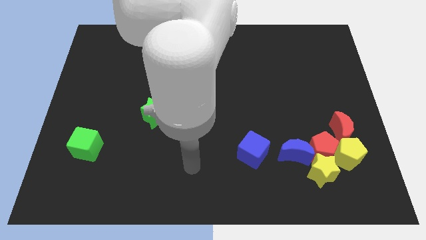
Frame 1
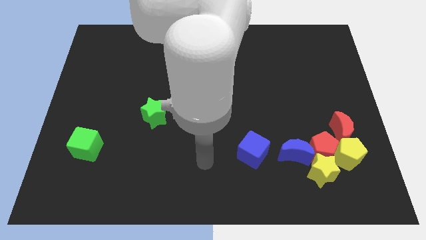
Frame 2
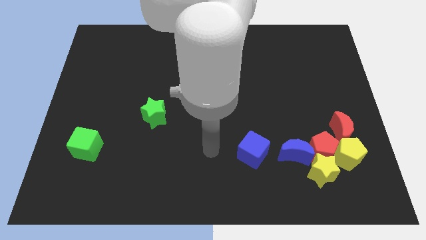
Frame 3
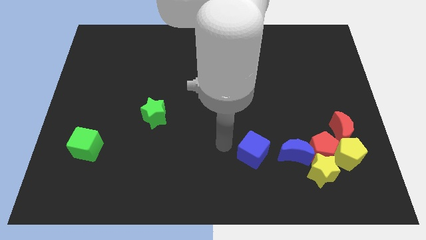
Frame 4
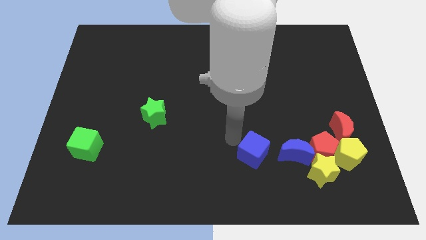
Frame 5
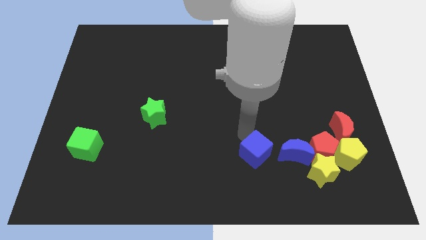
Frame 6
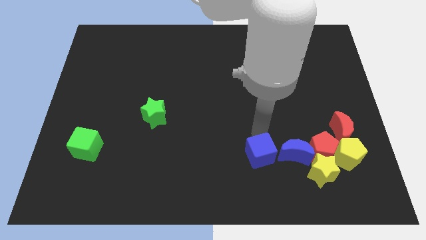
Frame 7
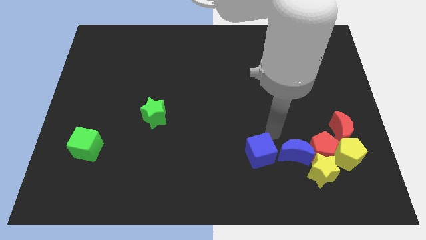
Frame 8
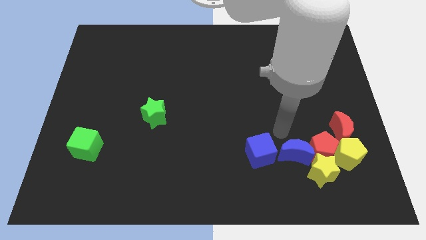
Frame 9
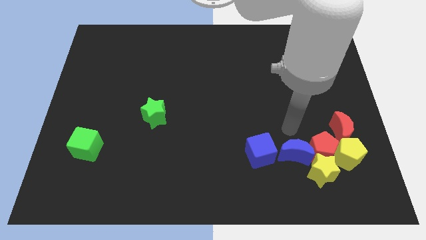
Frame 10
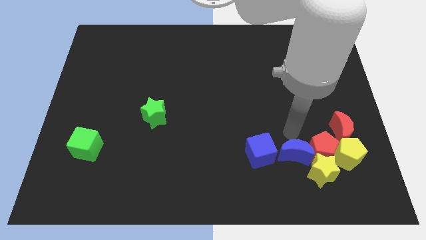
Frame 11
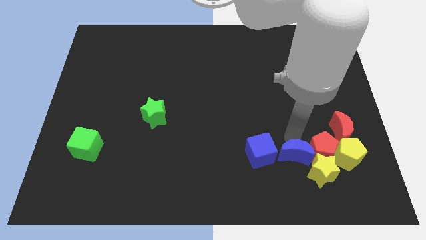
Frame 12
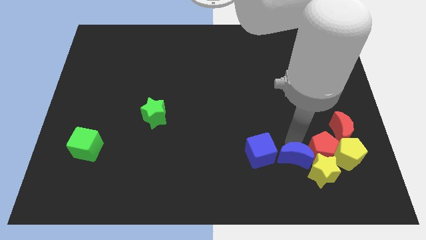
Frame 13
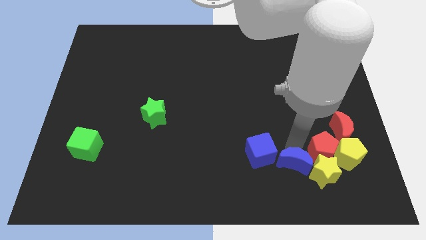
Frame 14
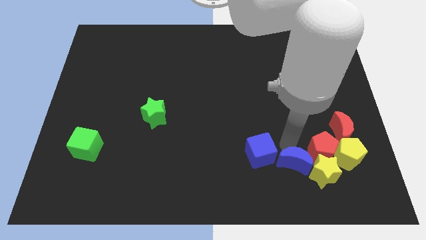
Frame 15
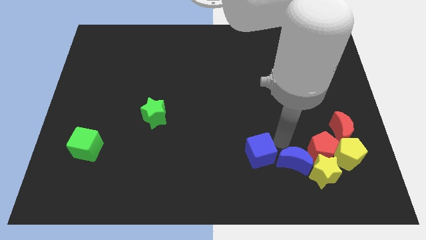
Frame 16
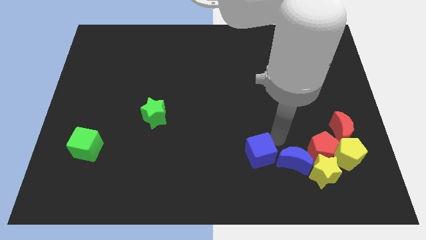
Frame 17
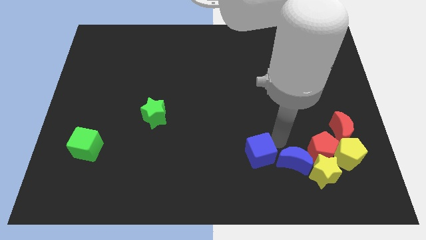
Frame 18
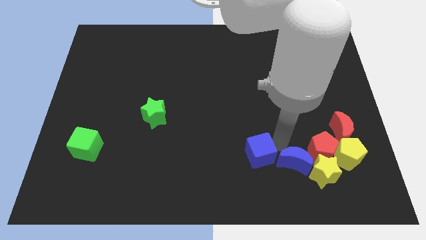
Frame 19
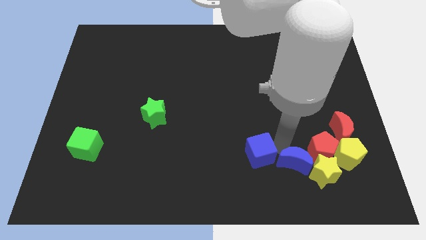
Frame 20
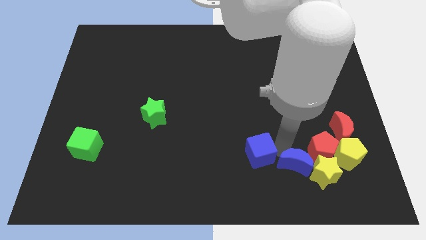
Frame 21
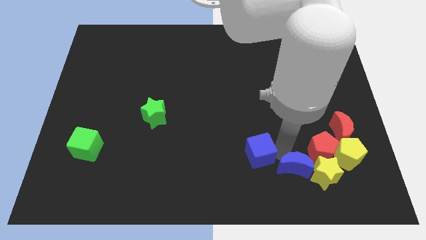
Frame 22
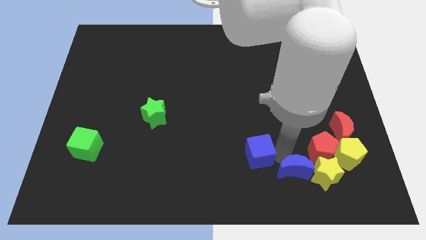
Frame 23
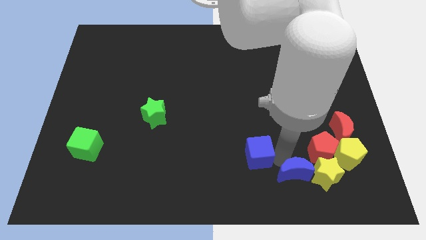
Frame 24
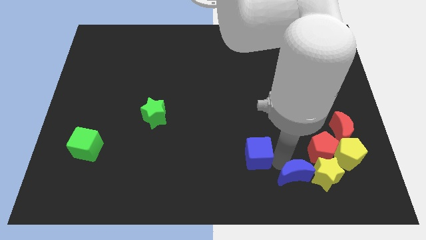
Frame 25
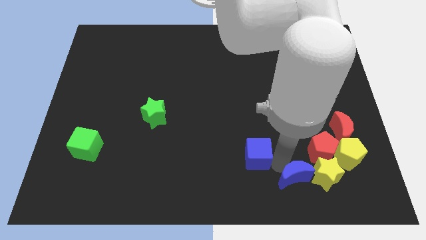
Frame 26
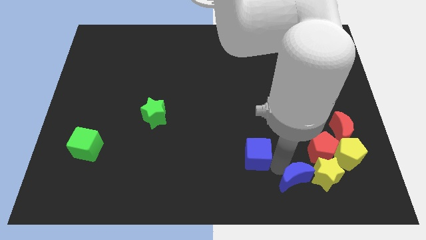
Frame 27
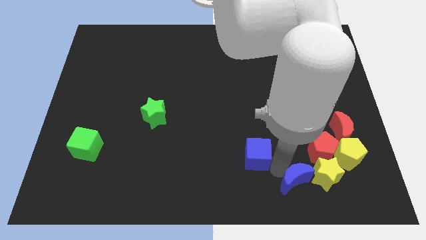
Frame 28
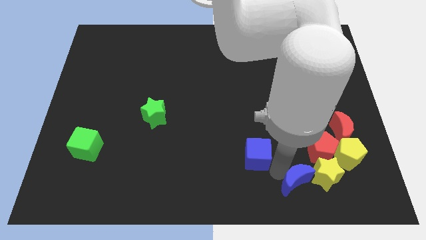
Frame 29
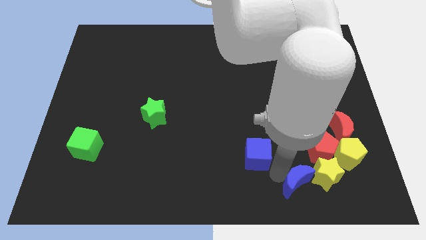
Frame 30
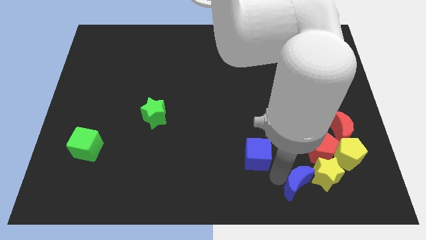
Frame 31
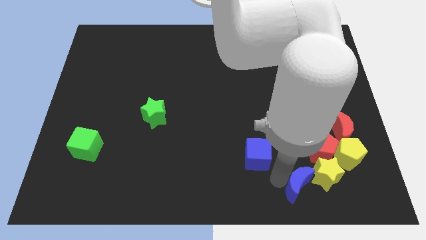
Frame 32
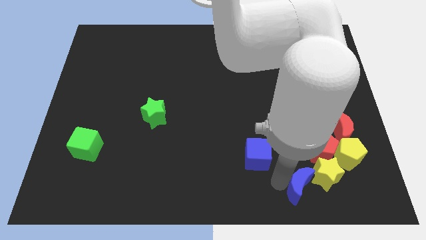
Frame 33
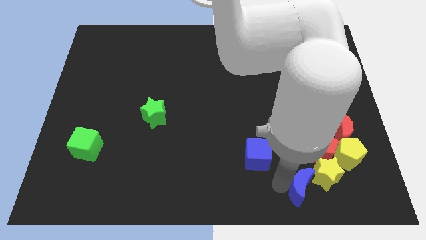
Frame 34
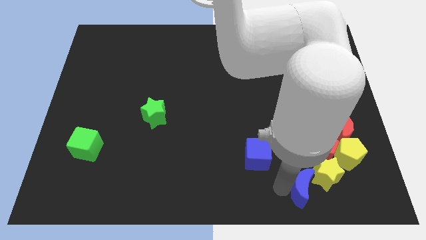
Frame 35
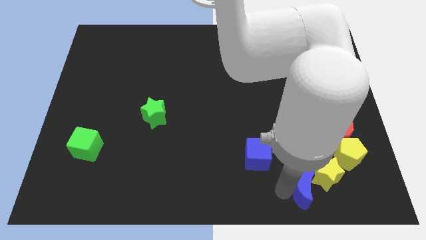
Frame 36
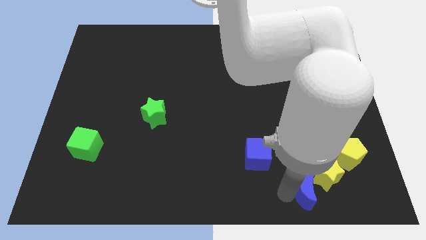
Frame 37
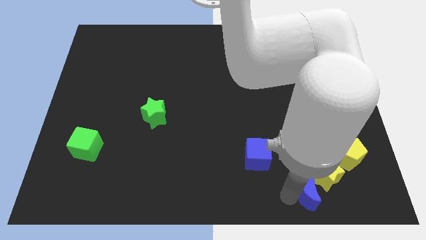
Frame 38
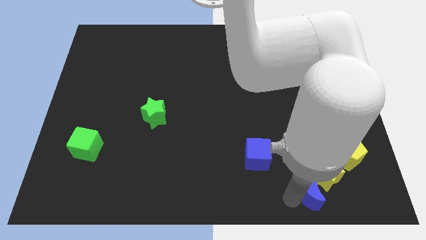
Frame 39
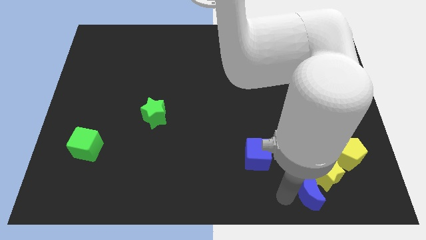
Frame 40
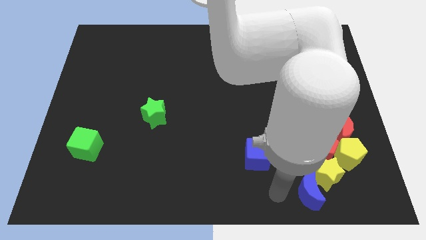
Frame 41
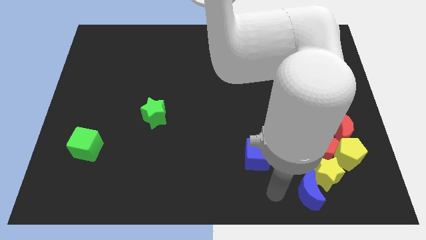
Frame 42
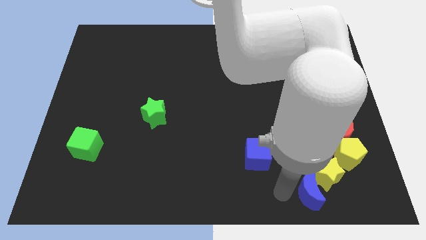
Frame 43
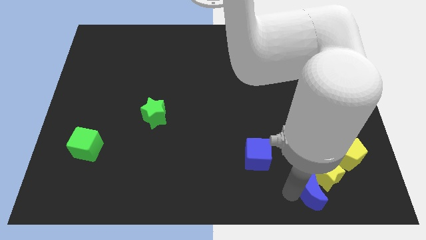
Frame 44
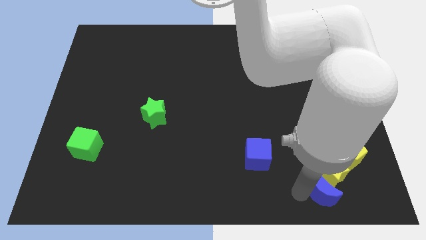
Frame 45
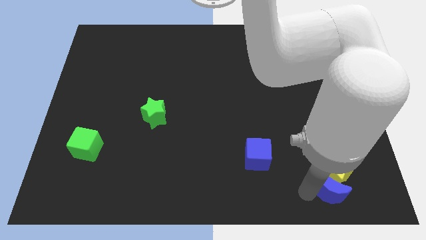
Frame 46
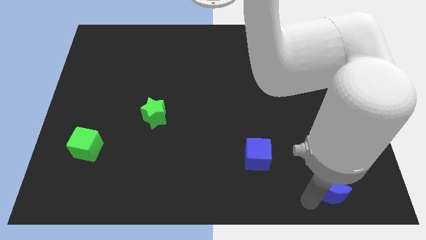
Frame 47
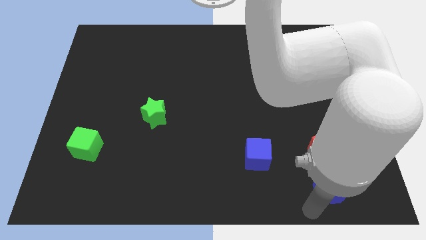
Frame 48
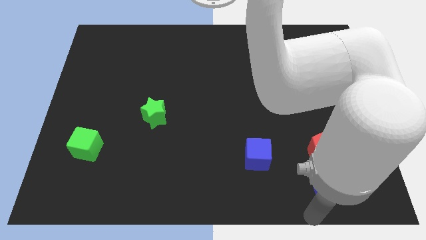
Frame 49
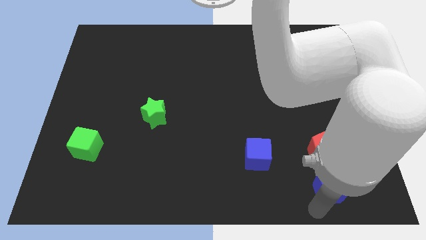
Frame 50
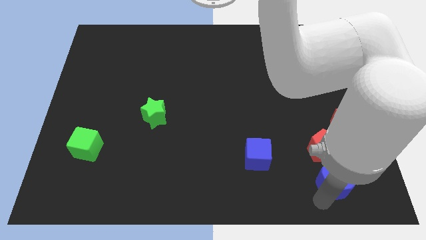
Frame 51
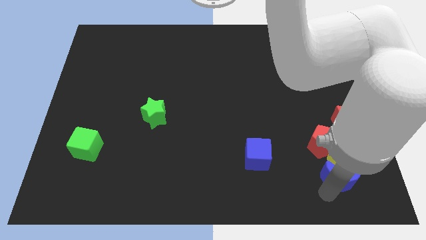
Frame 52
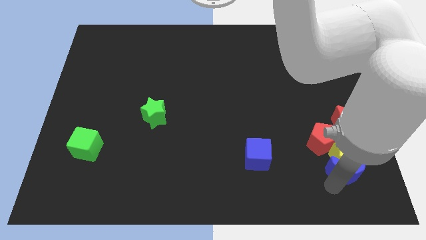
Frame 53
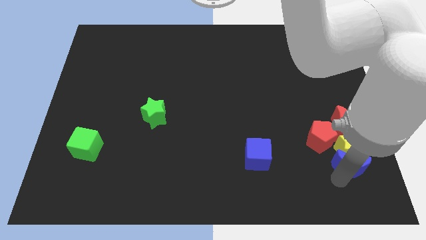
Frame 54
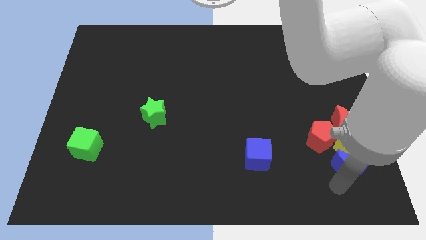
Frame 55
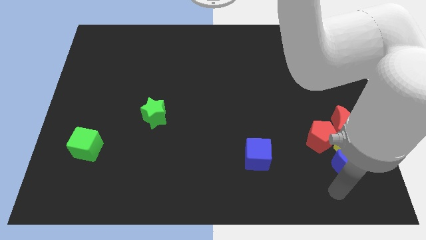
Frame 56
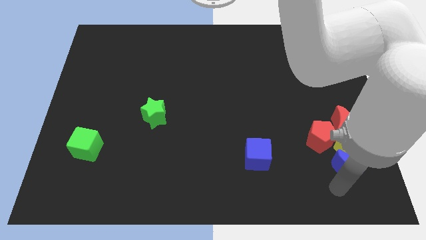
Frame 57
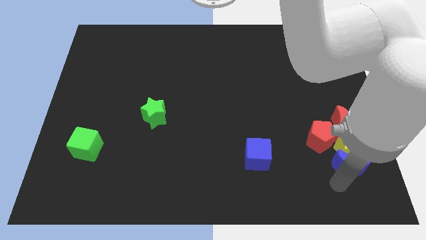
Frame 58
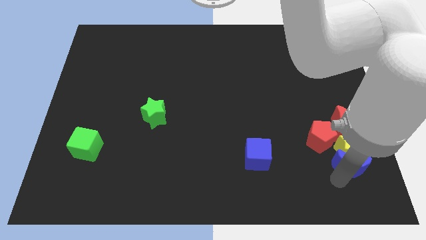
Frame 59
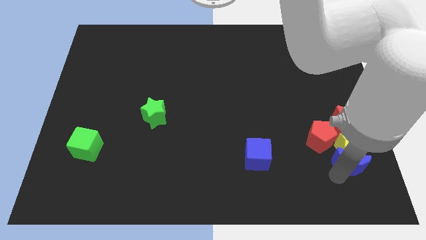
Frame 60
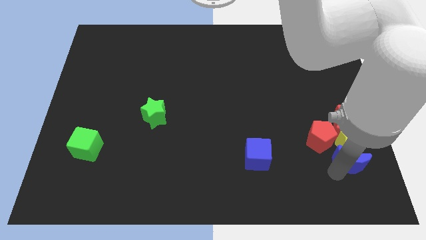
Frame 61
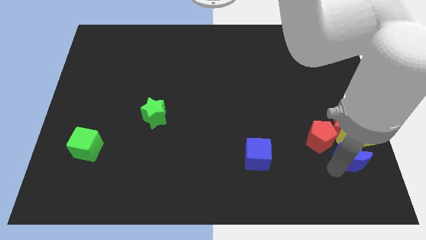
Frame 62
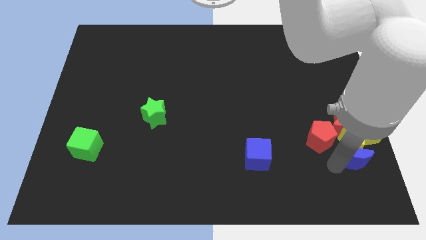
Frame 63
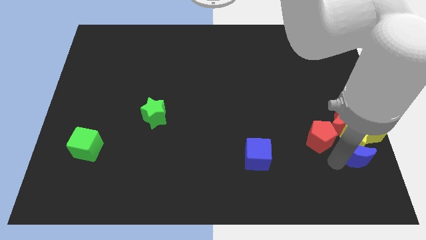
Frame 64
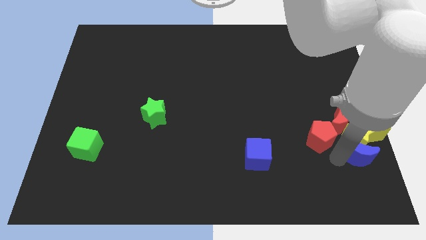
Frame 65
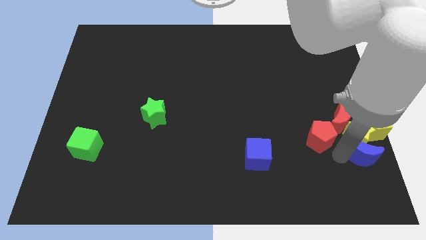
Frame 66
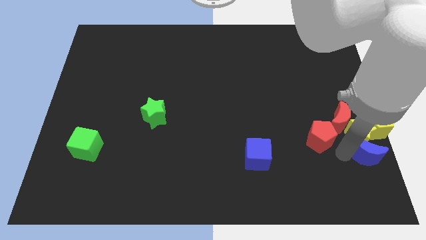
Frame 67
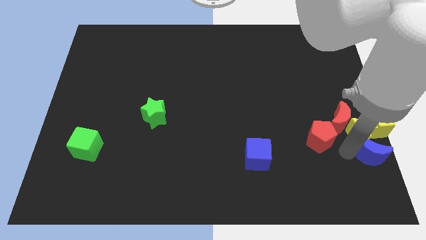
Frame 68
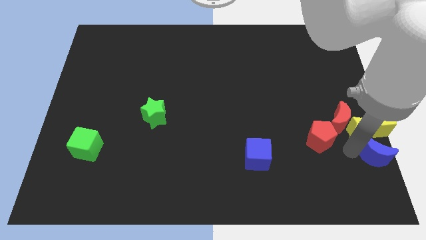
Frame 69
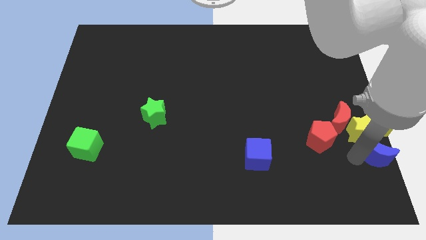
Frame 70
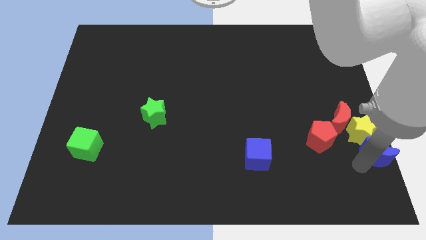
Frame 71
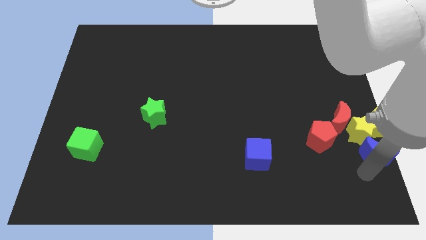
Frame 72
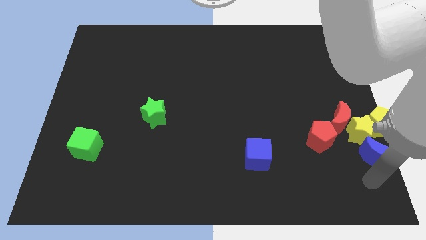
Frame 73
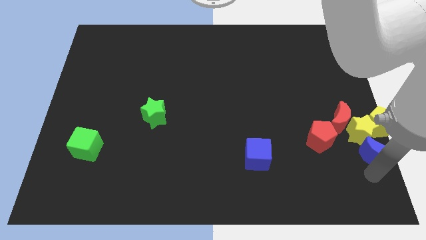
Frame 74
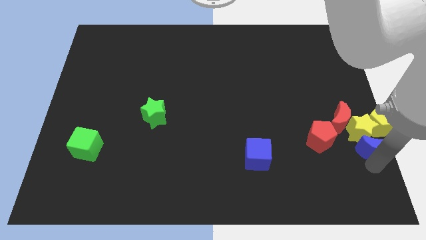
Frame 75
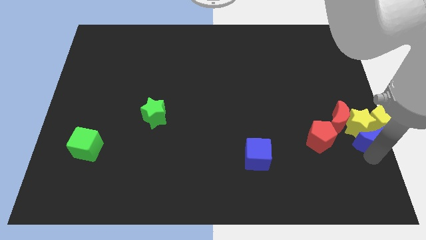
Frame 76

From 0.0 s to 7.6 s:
put the blue moon next to the yellow pentagon
